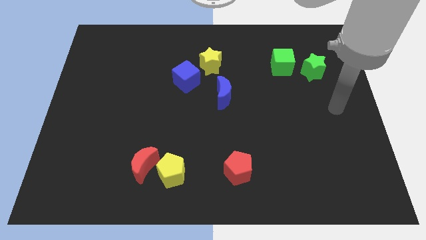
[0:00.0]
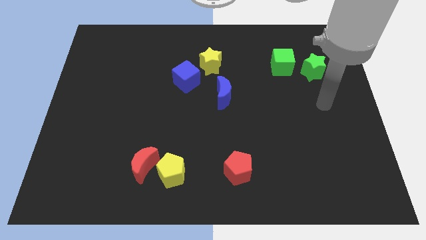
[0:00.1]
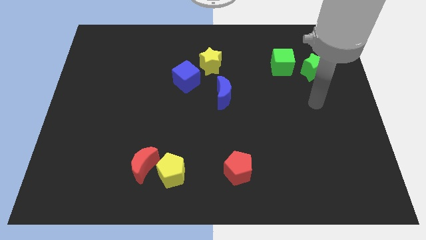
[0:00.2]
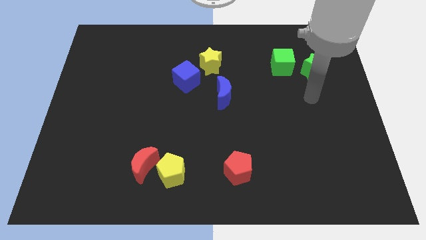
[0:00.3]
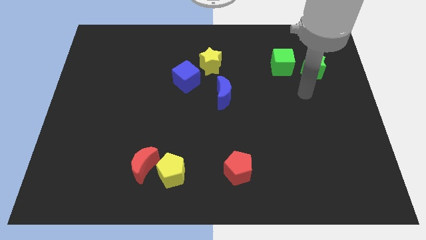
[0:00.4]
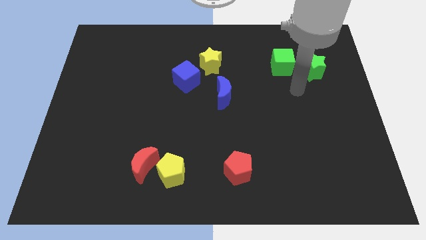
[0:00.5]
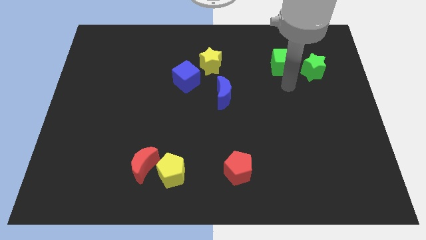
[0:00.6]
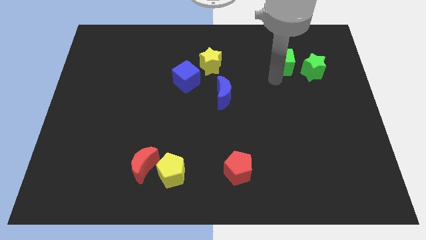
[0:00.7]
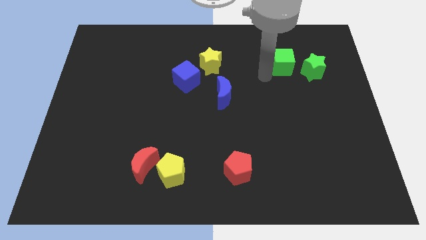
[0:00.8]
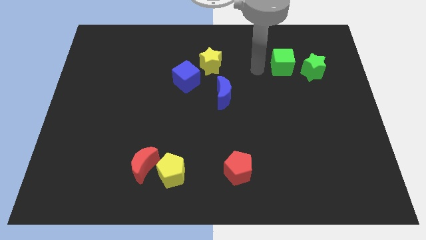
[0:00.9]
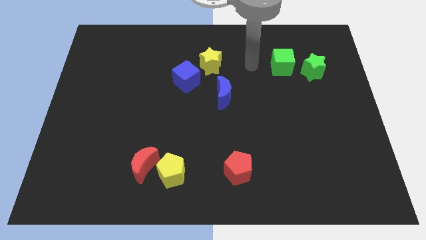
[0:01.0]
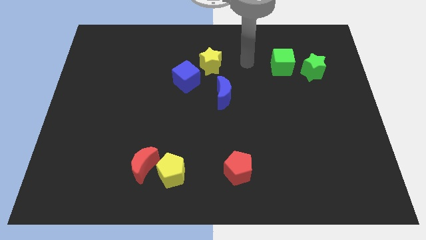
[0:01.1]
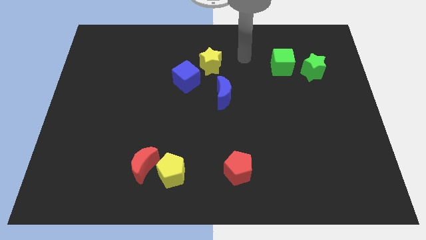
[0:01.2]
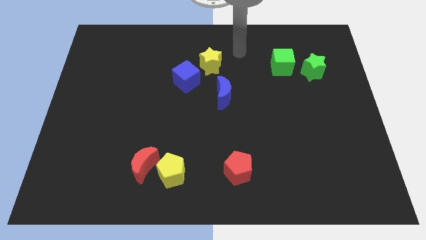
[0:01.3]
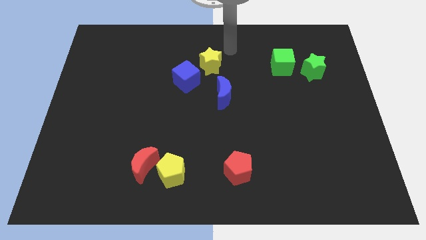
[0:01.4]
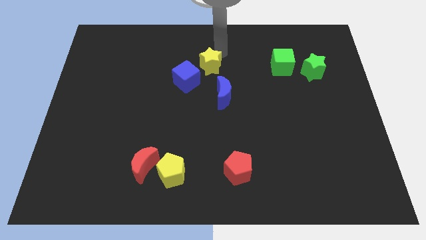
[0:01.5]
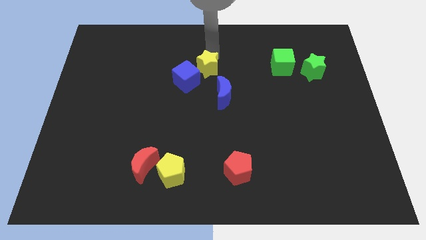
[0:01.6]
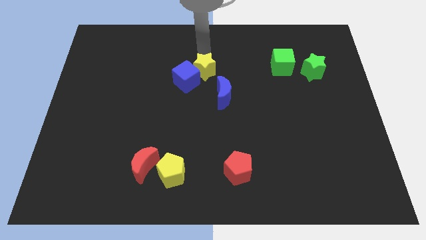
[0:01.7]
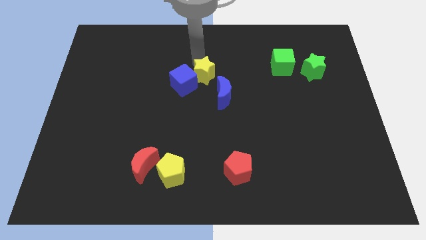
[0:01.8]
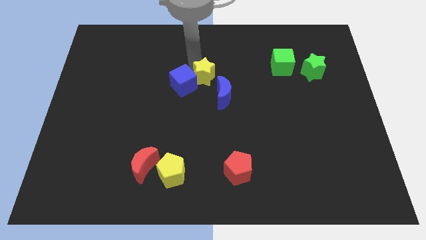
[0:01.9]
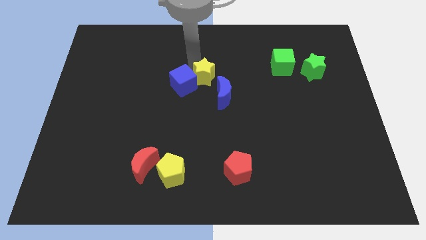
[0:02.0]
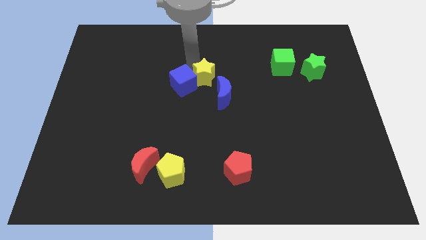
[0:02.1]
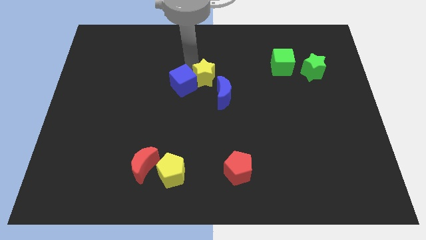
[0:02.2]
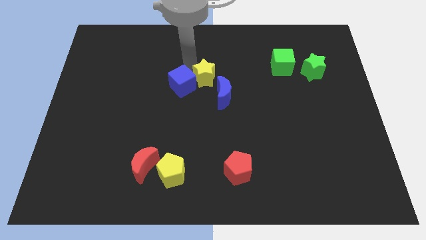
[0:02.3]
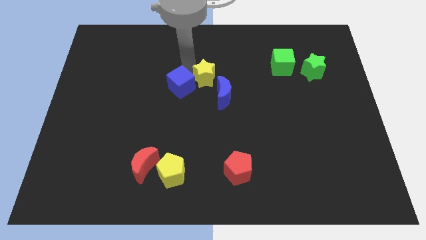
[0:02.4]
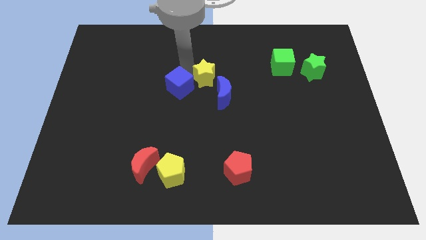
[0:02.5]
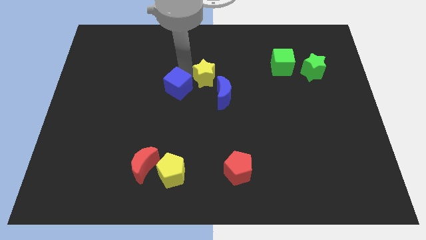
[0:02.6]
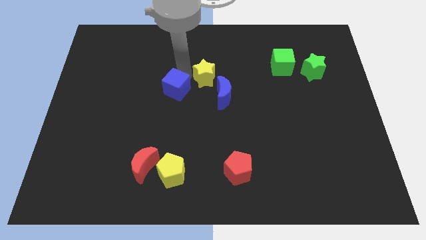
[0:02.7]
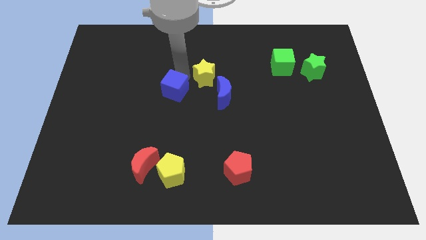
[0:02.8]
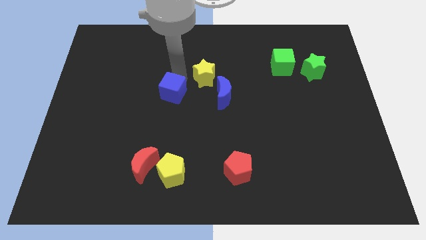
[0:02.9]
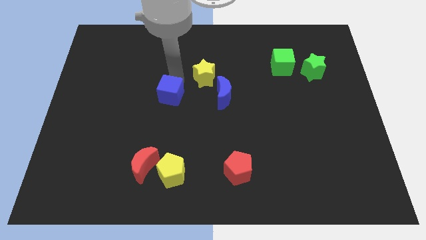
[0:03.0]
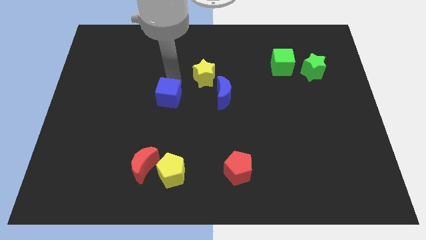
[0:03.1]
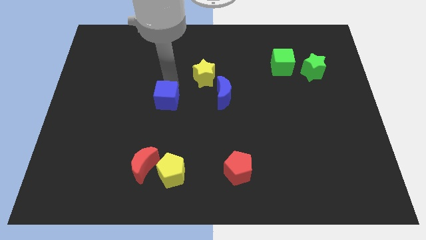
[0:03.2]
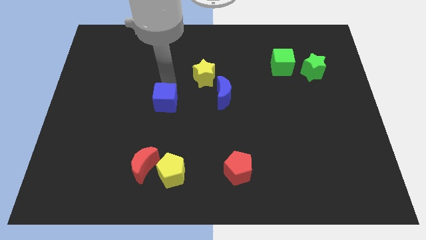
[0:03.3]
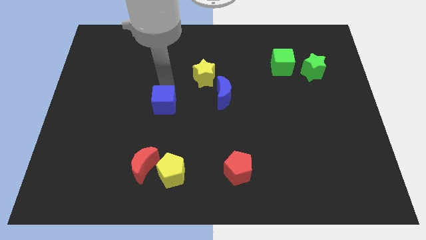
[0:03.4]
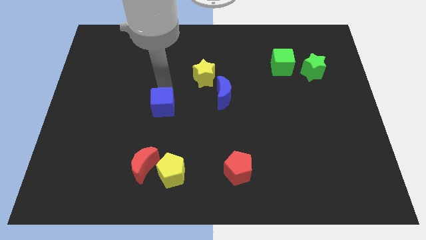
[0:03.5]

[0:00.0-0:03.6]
slightly move the blue cube down

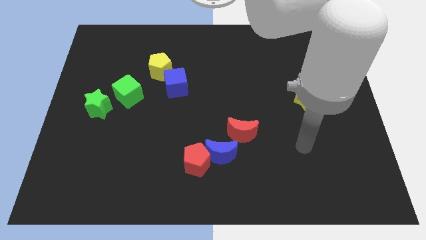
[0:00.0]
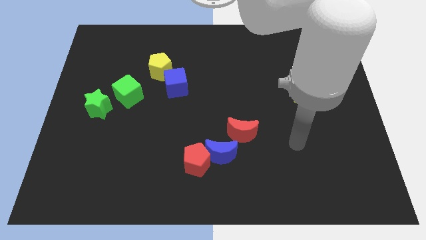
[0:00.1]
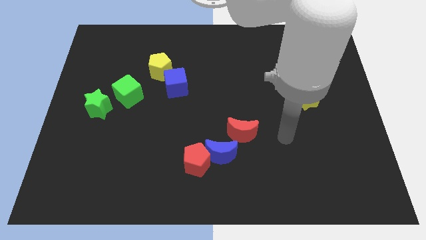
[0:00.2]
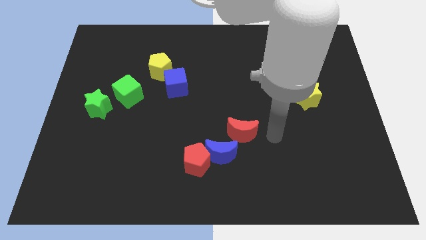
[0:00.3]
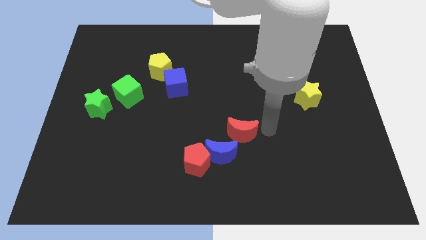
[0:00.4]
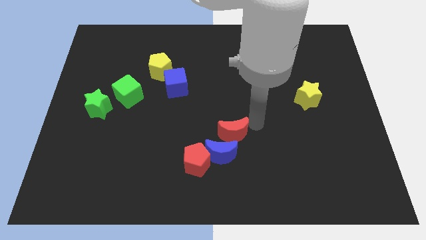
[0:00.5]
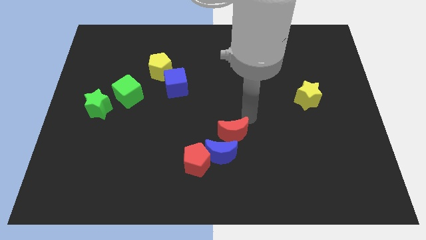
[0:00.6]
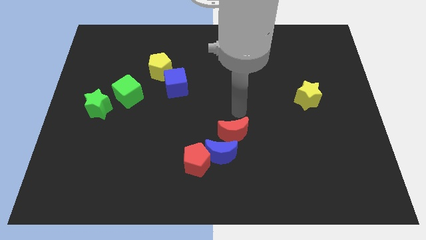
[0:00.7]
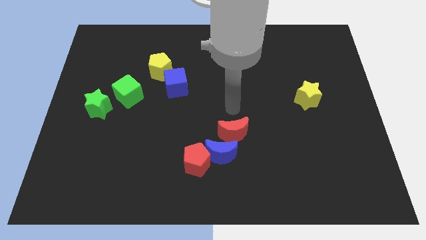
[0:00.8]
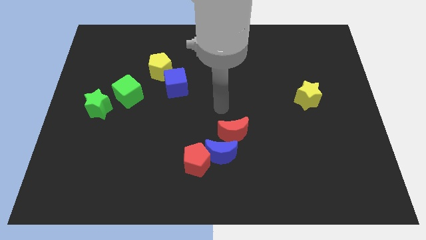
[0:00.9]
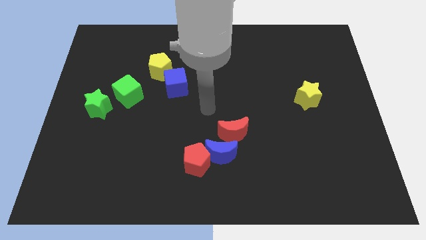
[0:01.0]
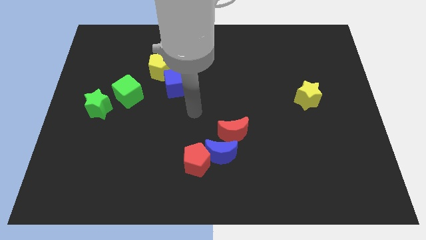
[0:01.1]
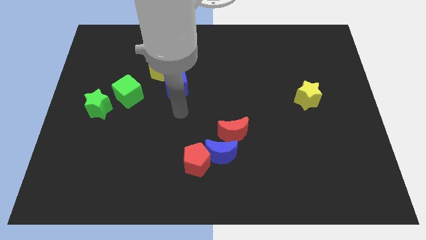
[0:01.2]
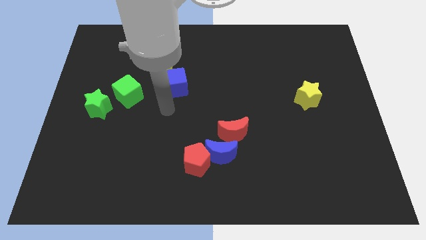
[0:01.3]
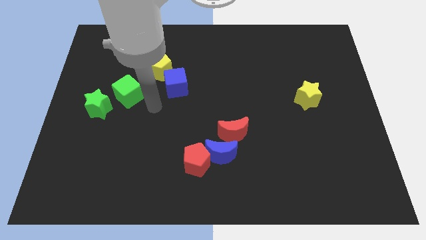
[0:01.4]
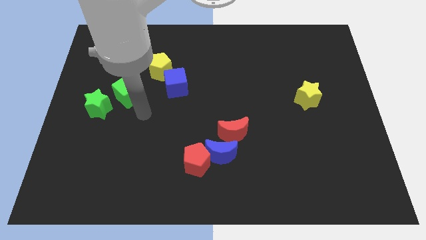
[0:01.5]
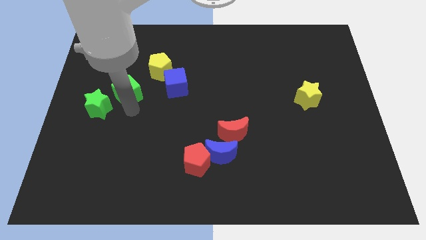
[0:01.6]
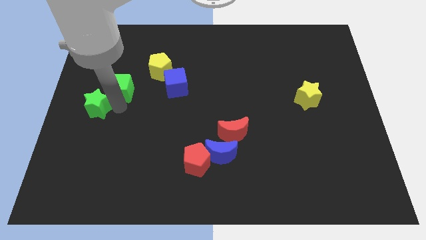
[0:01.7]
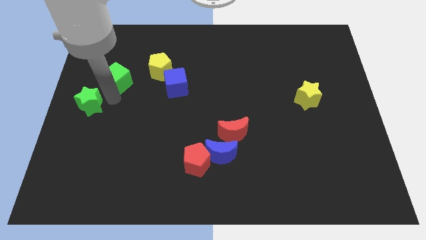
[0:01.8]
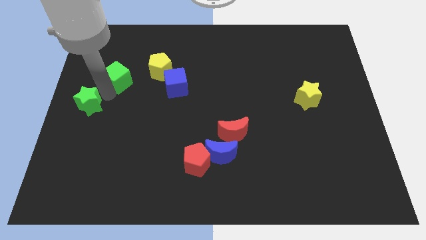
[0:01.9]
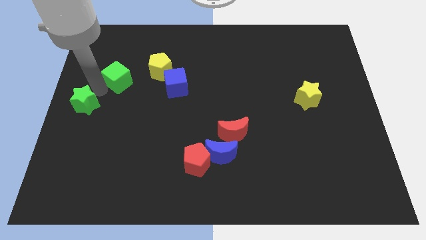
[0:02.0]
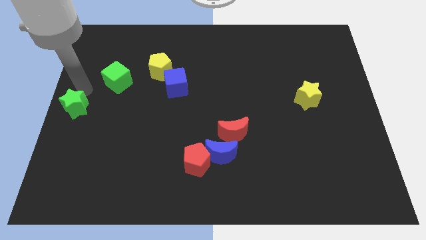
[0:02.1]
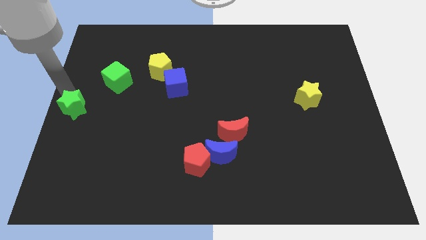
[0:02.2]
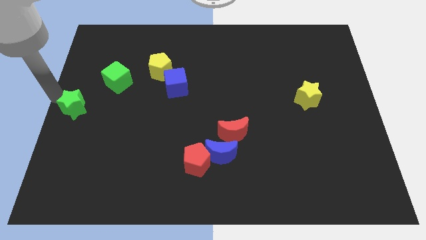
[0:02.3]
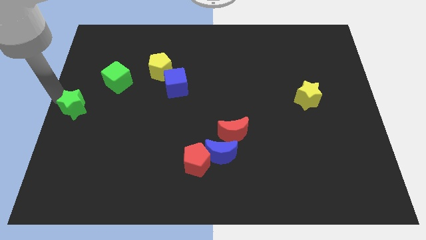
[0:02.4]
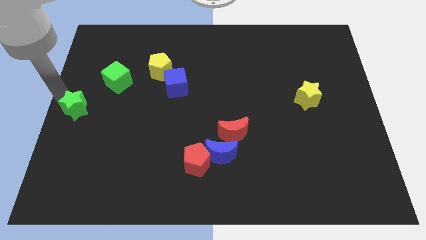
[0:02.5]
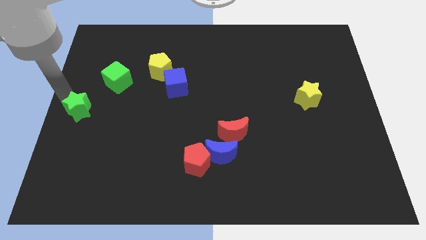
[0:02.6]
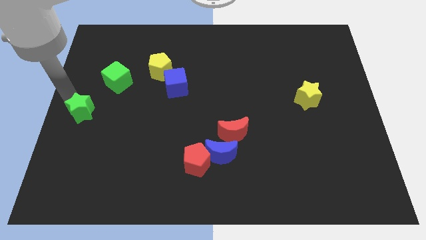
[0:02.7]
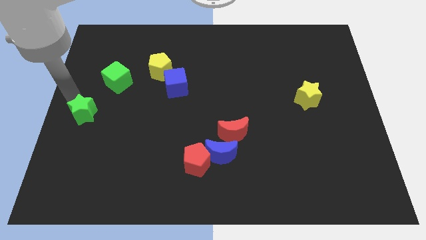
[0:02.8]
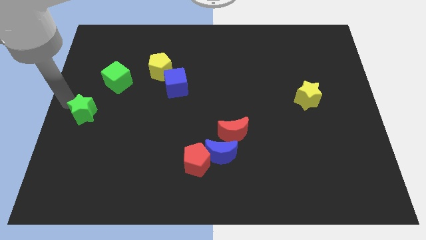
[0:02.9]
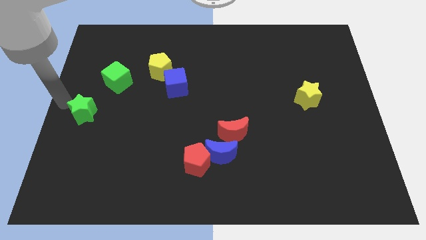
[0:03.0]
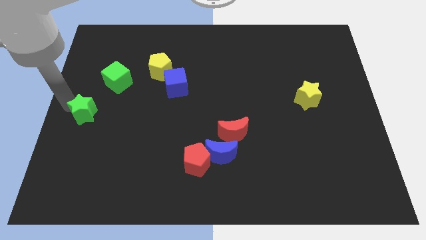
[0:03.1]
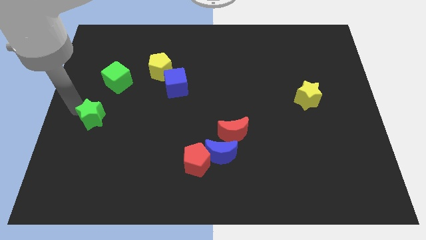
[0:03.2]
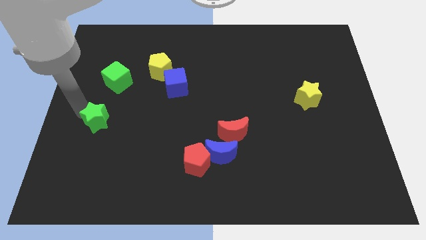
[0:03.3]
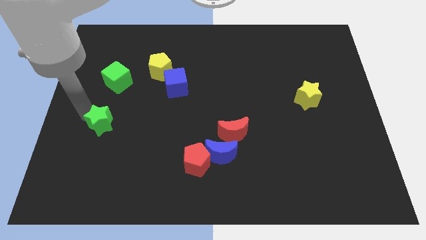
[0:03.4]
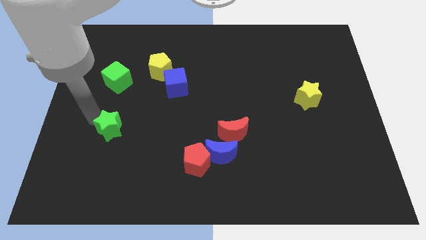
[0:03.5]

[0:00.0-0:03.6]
slide the green star diagonally downwards and right a little

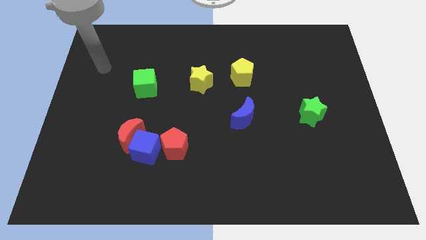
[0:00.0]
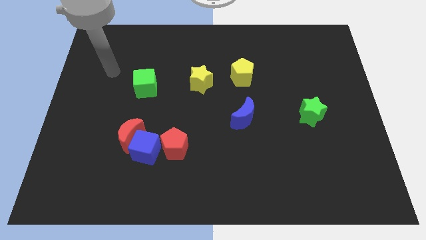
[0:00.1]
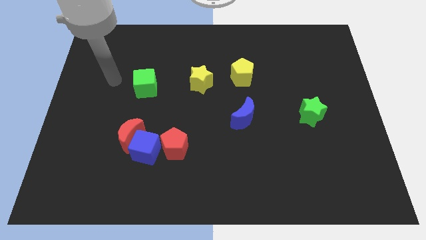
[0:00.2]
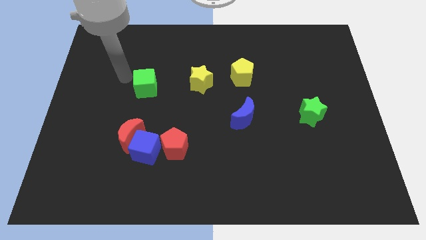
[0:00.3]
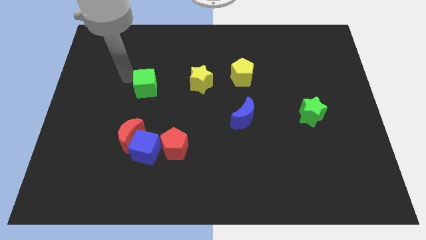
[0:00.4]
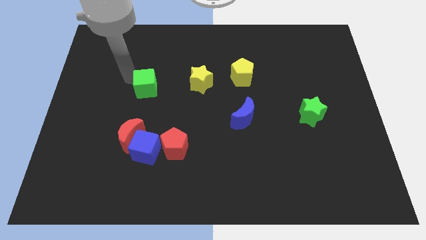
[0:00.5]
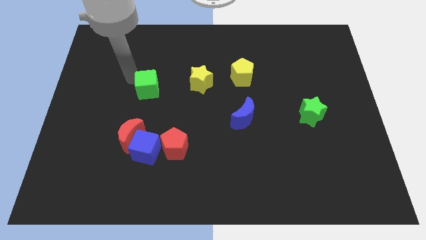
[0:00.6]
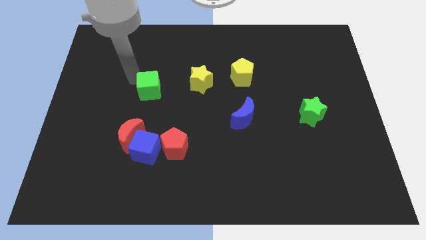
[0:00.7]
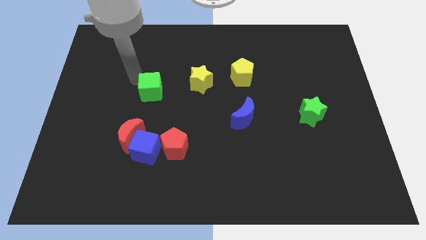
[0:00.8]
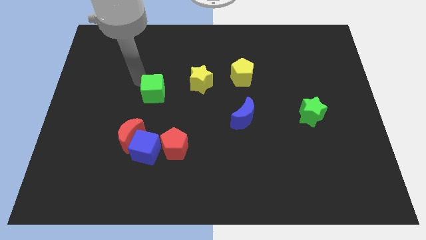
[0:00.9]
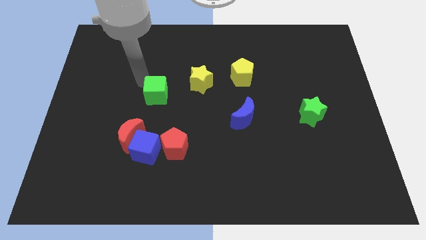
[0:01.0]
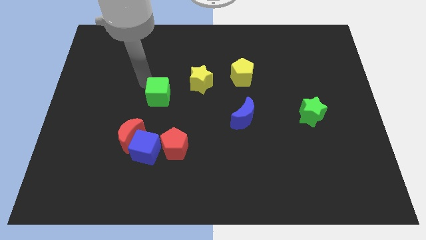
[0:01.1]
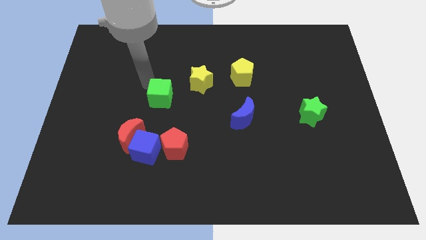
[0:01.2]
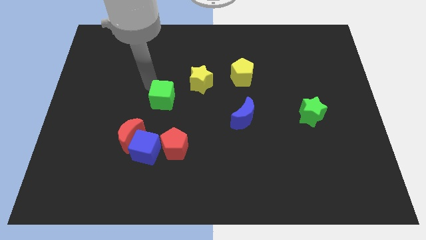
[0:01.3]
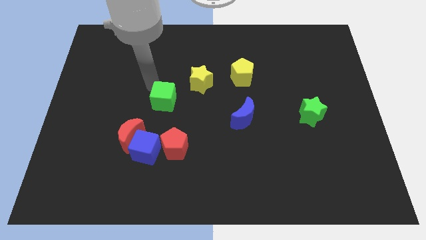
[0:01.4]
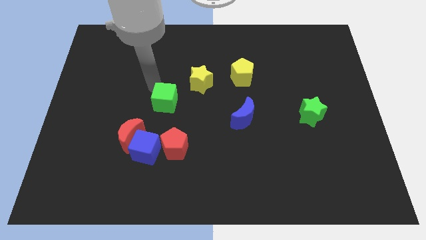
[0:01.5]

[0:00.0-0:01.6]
slightly slide the green cube downwards and to the right
